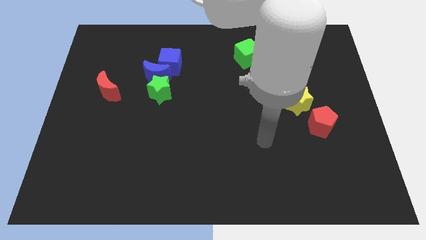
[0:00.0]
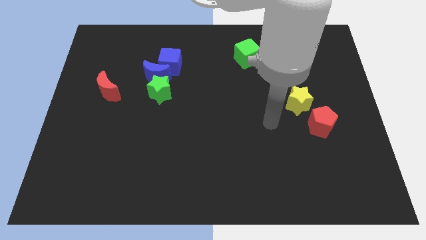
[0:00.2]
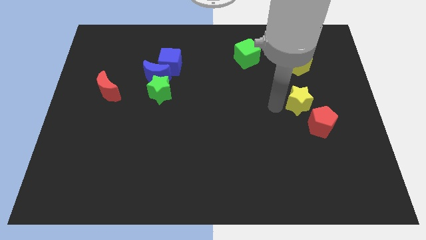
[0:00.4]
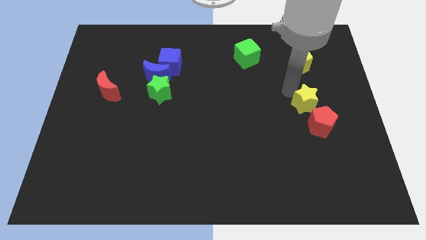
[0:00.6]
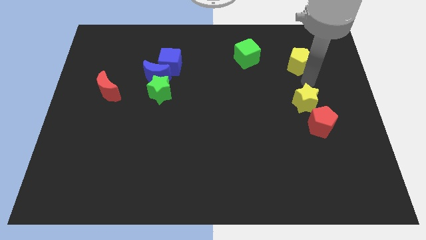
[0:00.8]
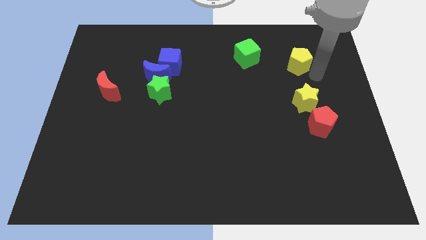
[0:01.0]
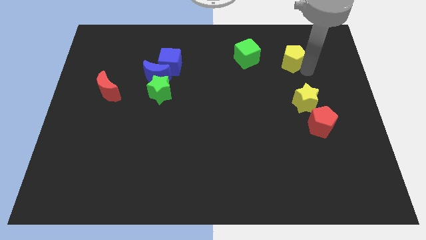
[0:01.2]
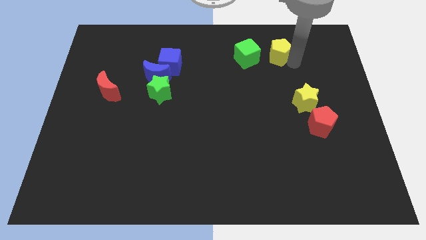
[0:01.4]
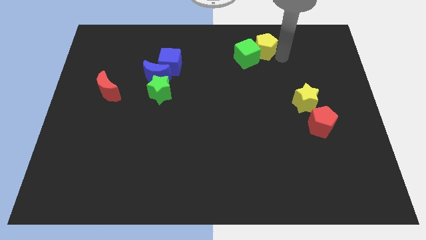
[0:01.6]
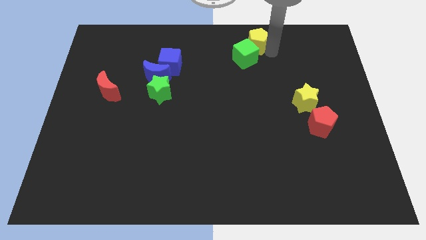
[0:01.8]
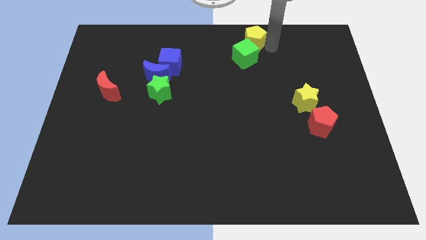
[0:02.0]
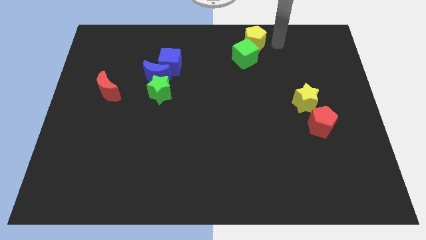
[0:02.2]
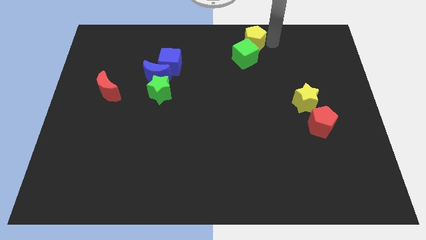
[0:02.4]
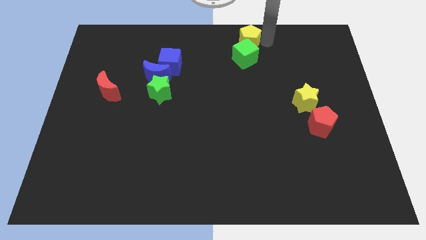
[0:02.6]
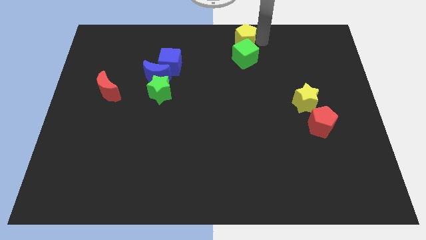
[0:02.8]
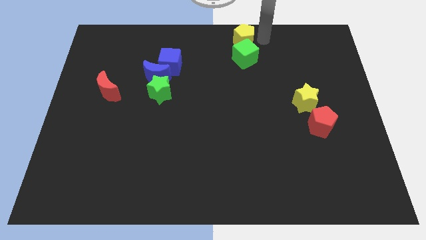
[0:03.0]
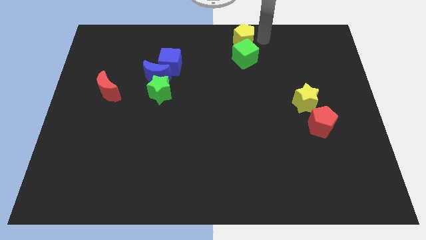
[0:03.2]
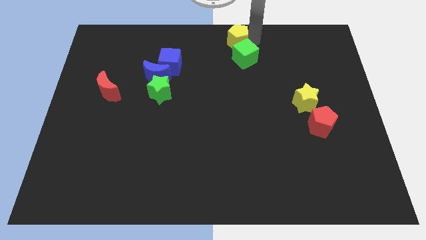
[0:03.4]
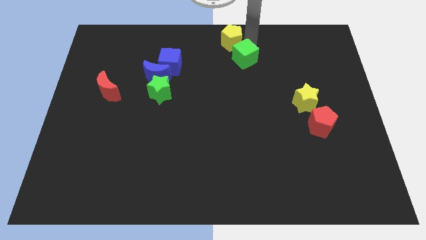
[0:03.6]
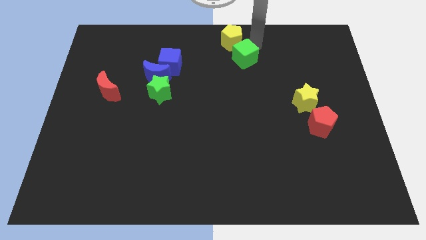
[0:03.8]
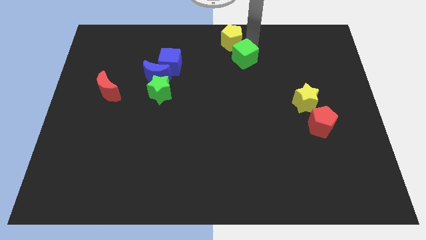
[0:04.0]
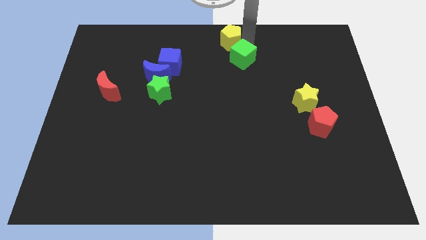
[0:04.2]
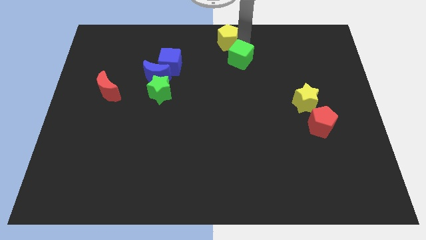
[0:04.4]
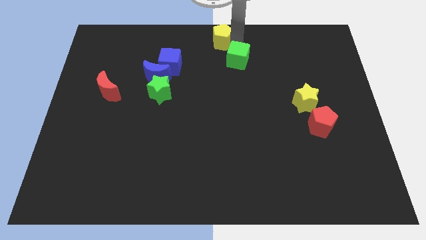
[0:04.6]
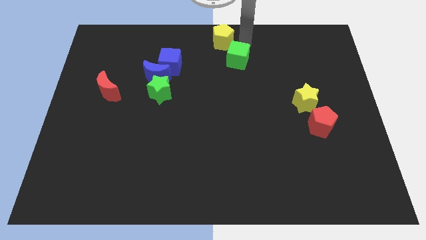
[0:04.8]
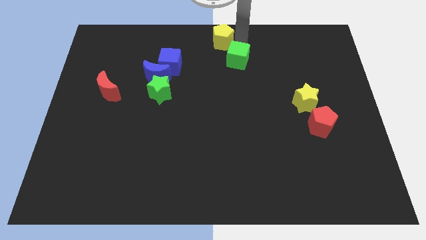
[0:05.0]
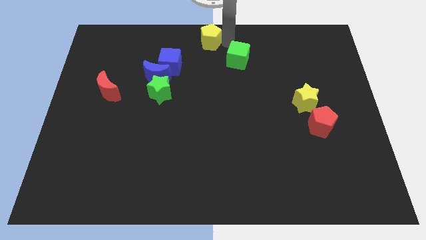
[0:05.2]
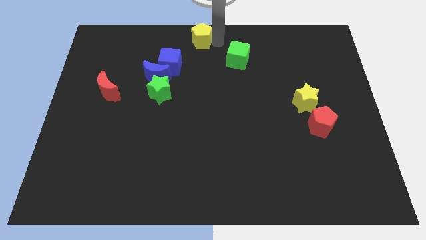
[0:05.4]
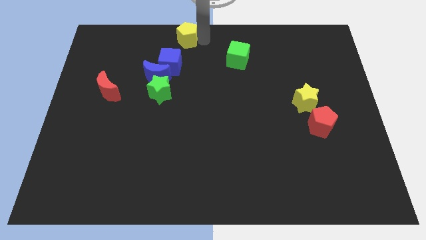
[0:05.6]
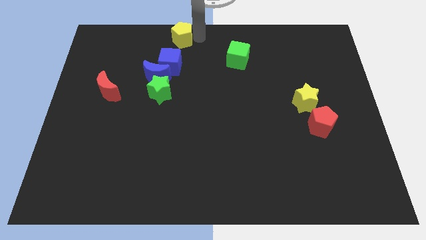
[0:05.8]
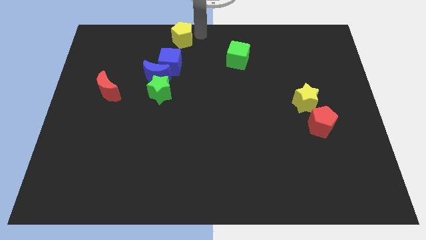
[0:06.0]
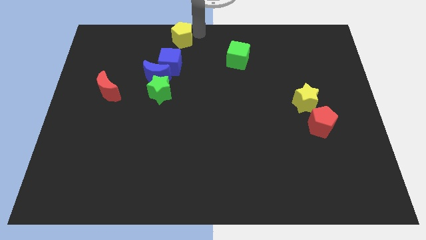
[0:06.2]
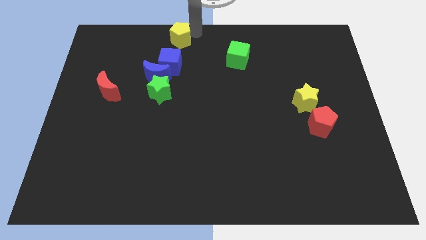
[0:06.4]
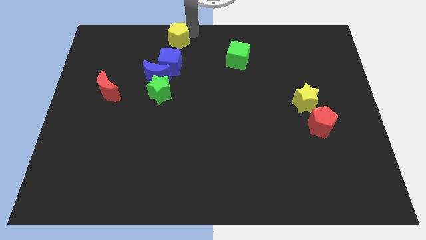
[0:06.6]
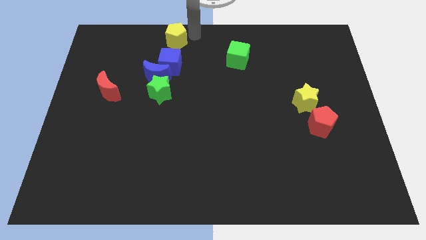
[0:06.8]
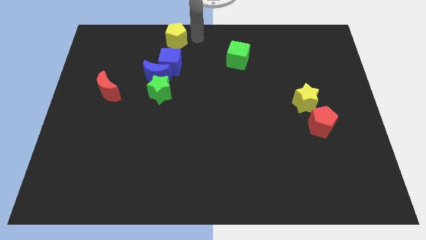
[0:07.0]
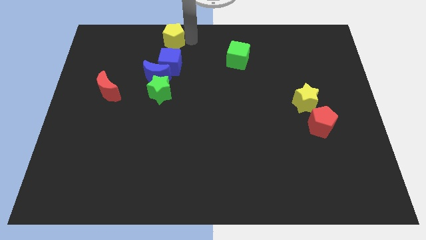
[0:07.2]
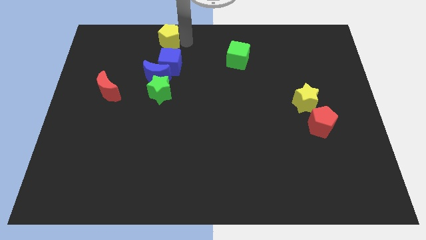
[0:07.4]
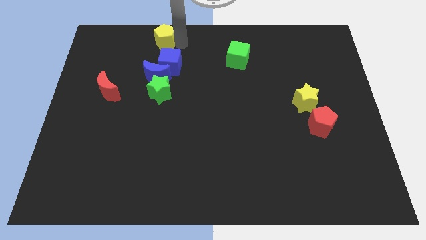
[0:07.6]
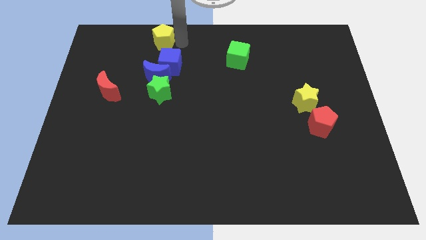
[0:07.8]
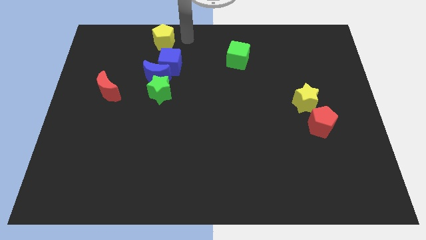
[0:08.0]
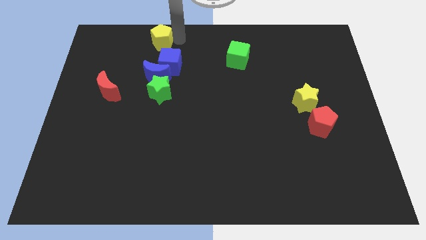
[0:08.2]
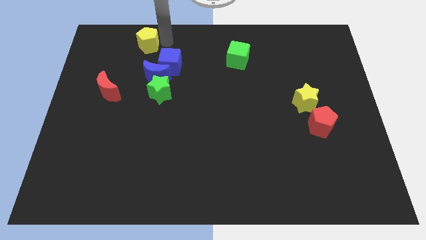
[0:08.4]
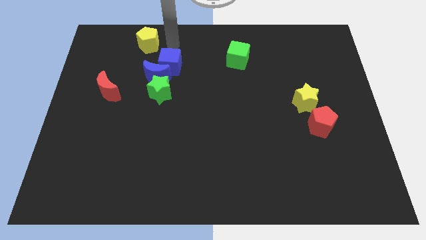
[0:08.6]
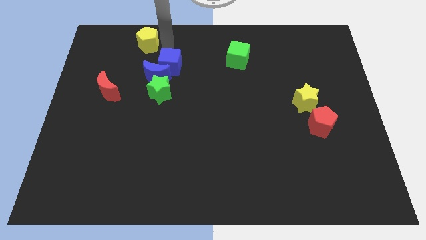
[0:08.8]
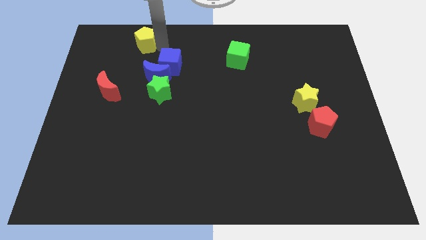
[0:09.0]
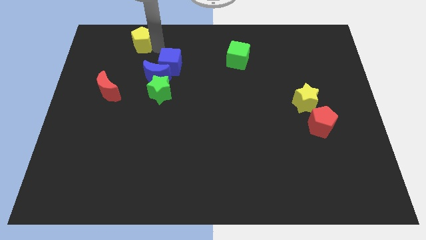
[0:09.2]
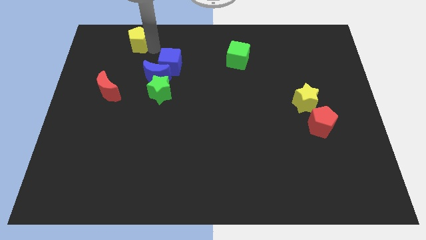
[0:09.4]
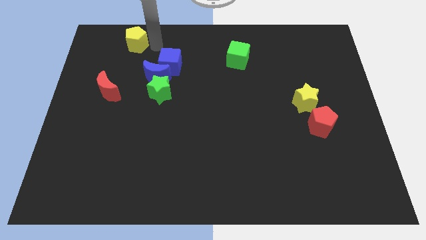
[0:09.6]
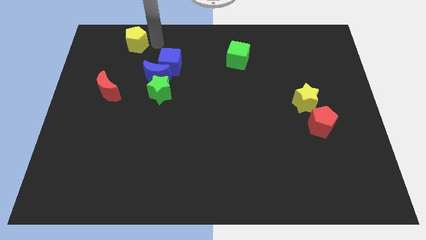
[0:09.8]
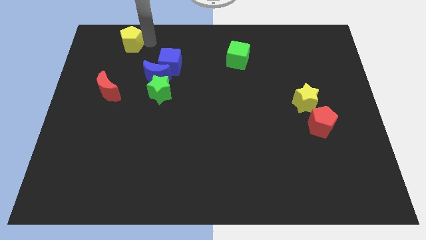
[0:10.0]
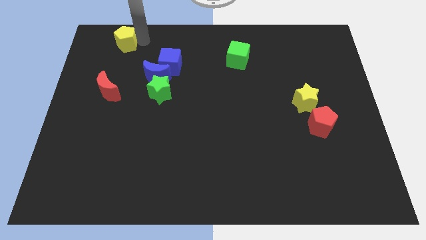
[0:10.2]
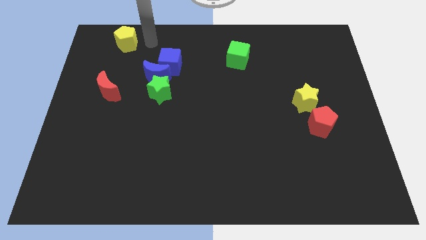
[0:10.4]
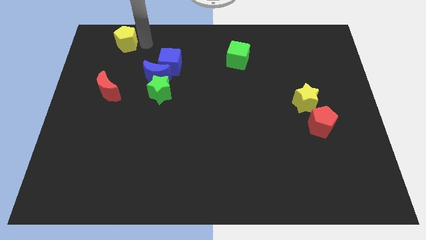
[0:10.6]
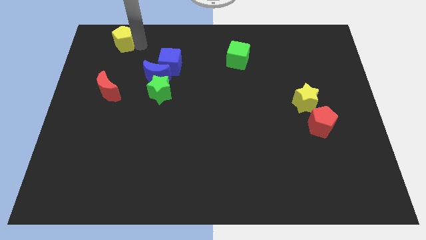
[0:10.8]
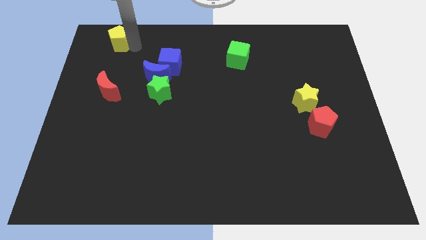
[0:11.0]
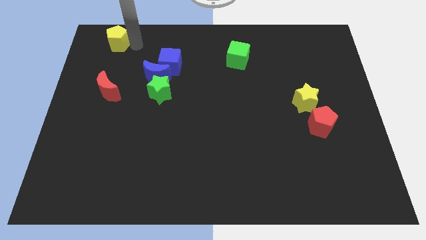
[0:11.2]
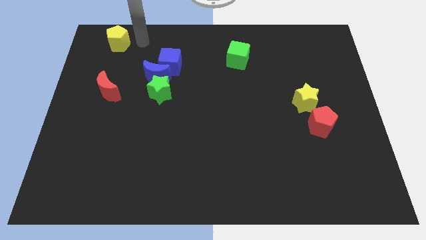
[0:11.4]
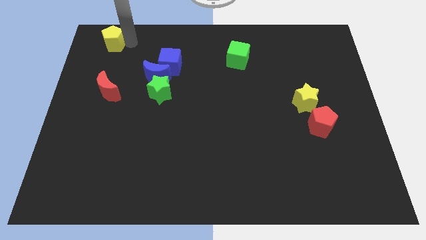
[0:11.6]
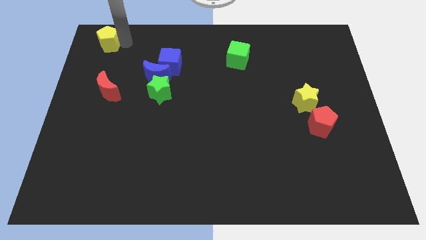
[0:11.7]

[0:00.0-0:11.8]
put the yellow pentagon to the upper left corner
